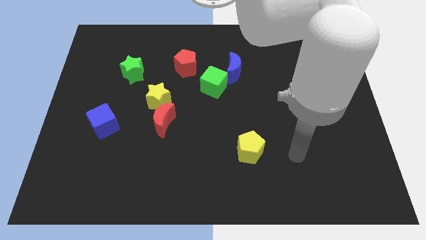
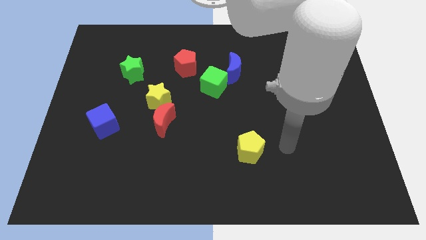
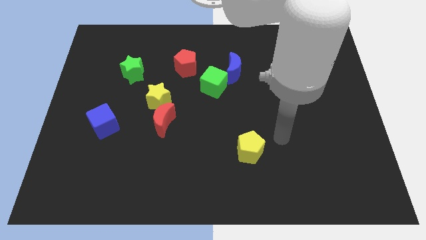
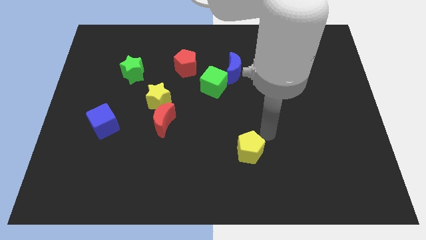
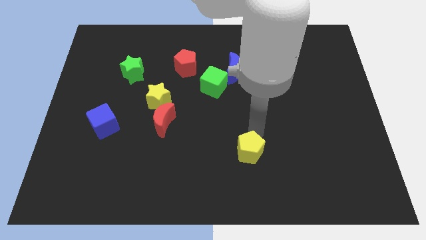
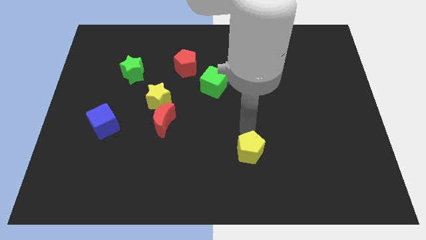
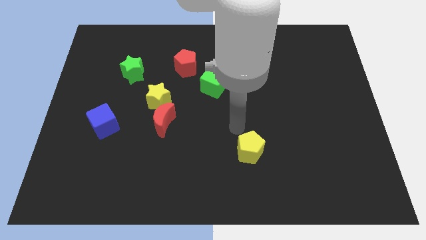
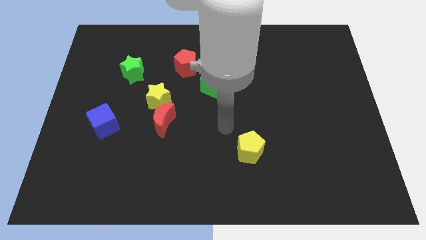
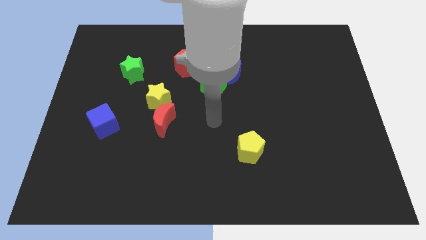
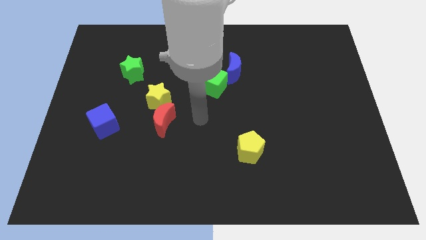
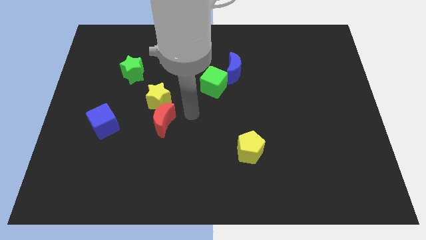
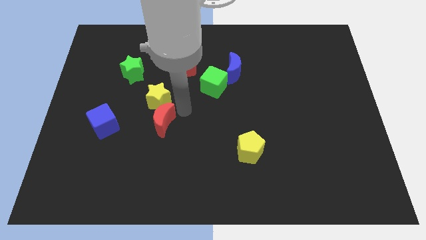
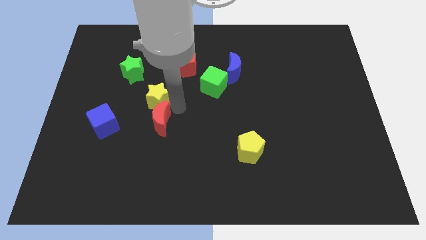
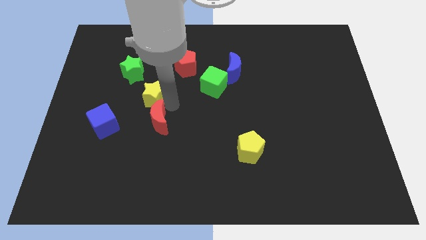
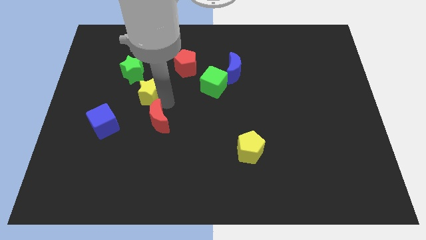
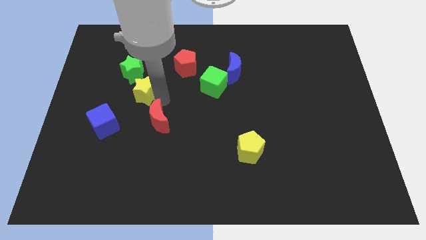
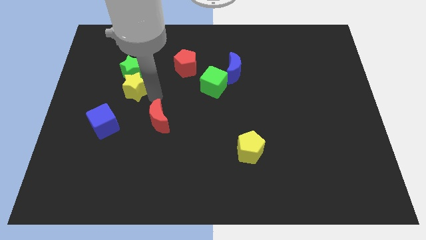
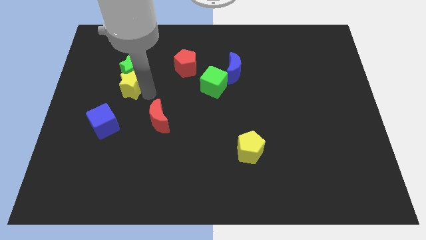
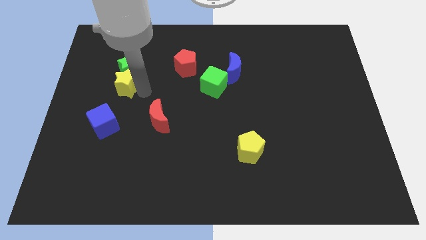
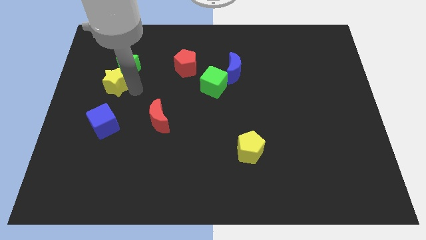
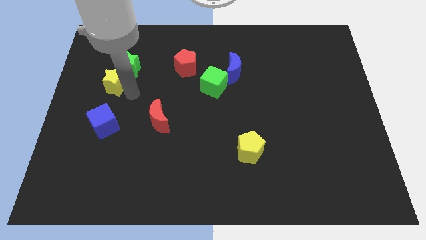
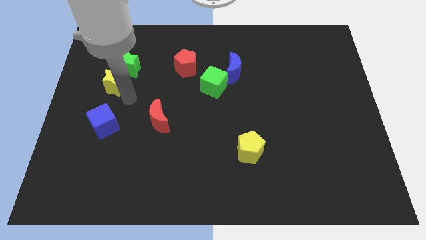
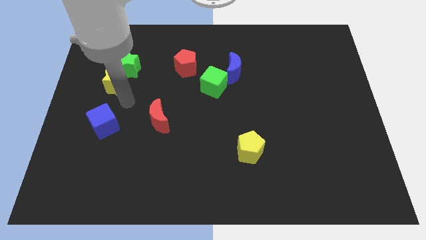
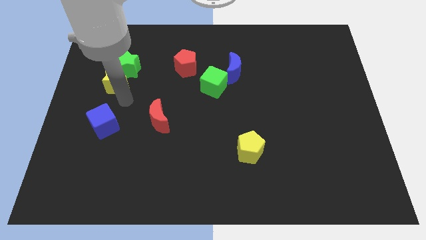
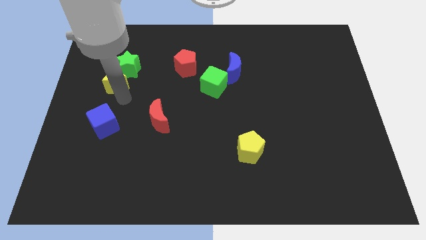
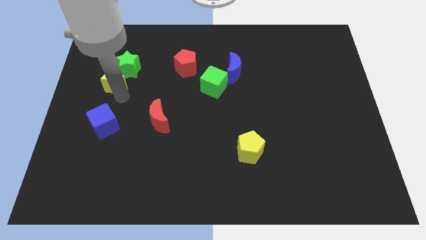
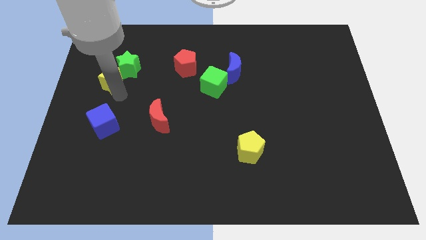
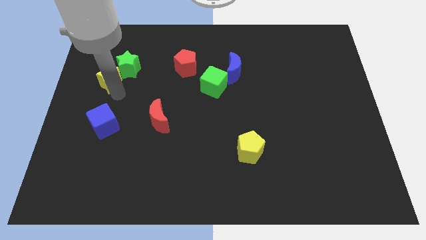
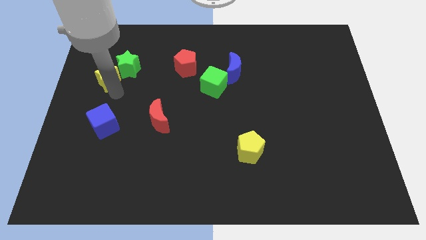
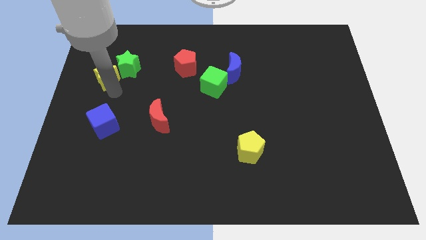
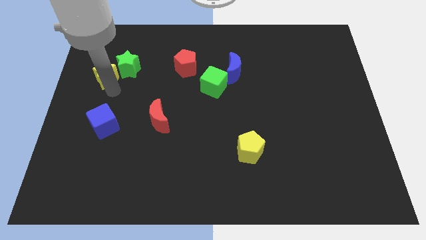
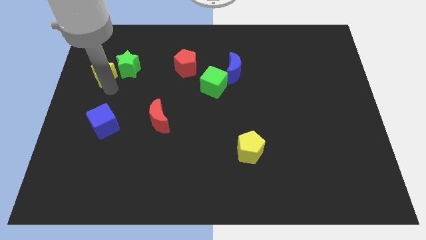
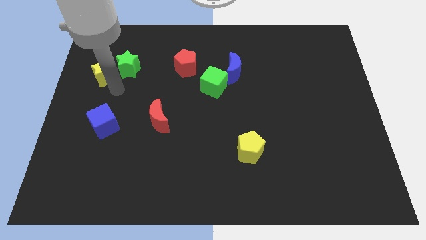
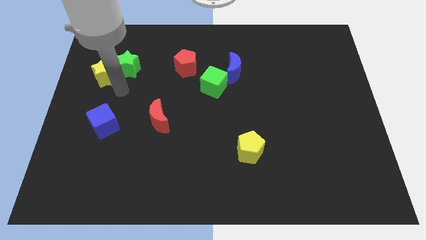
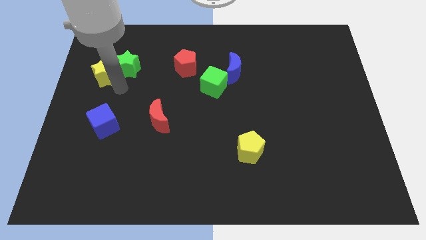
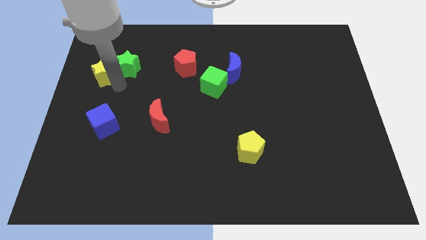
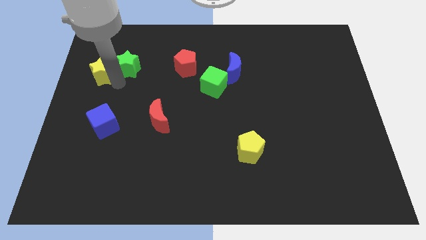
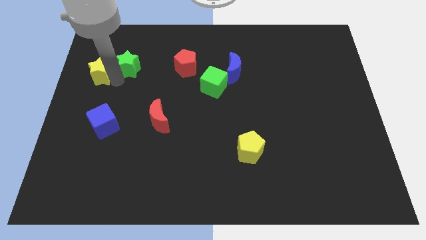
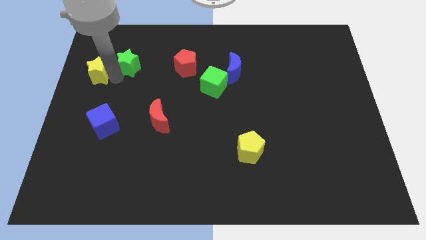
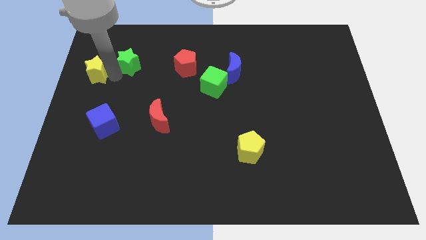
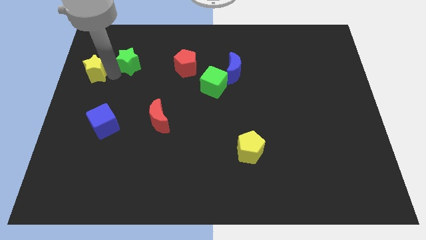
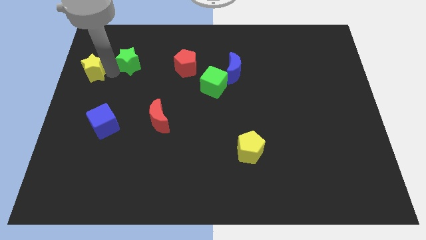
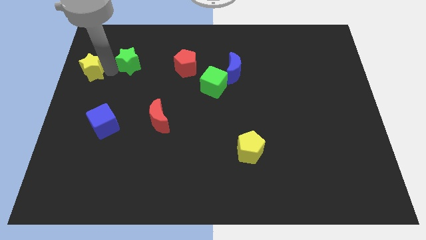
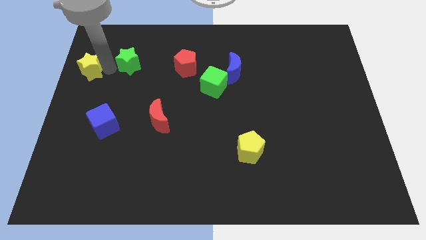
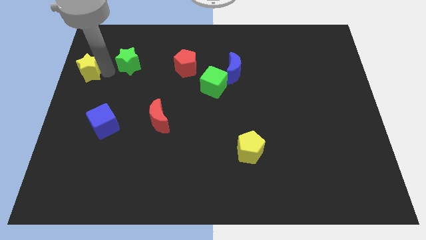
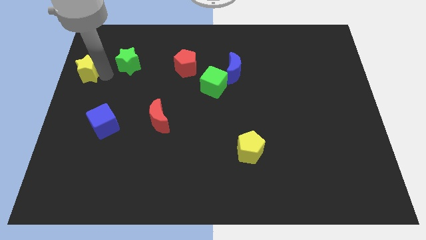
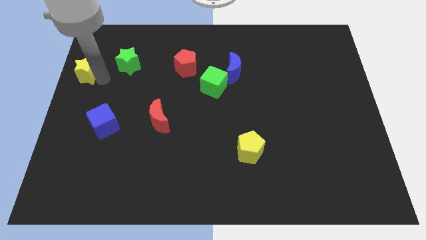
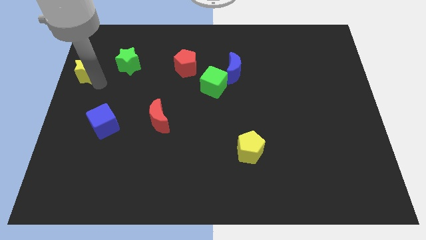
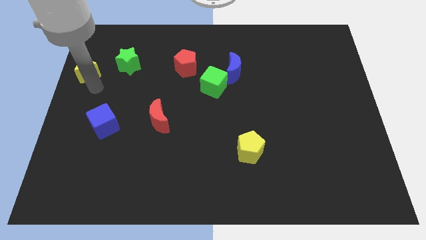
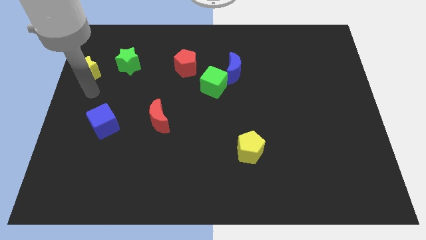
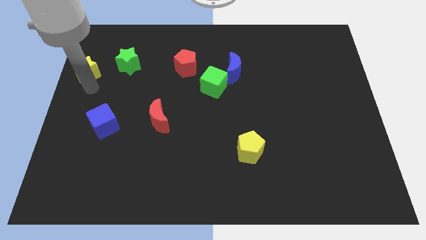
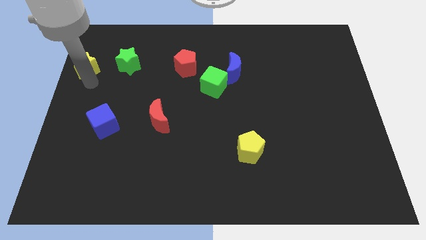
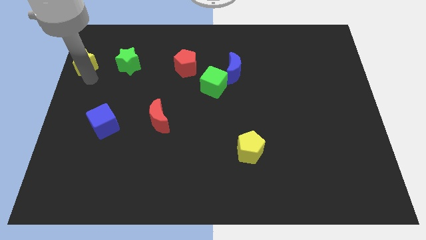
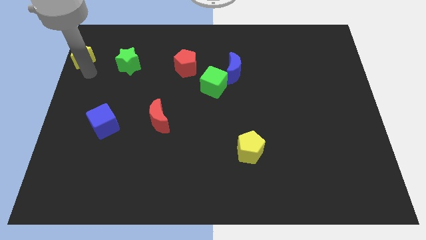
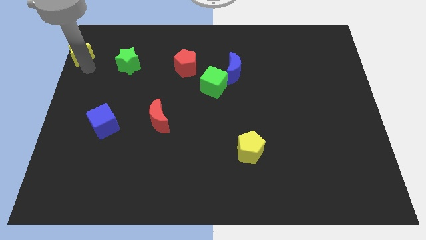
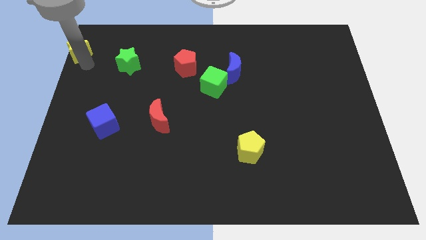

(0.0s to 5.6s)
push the yellow star to the top left of the board
